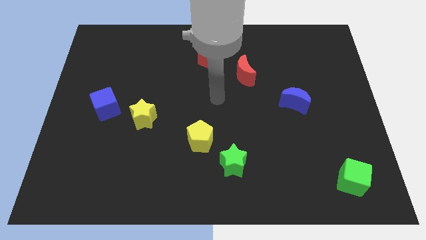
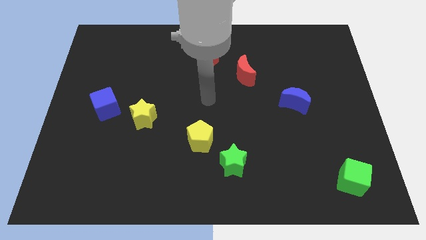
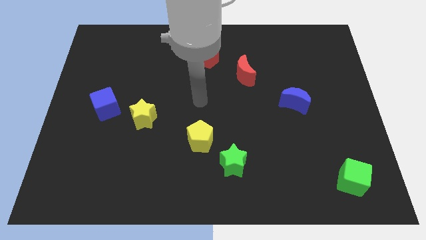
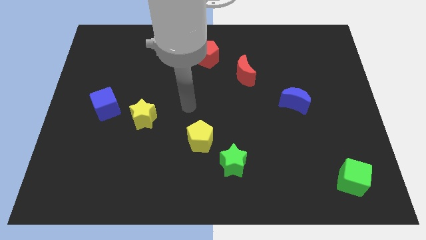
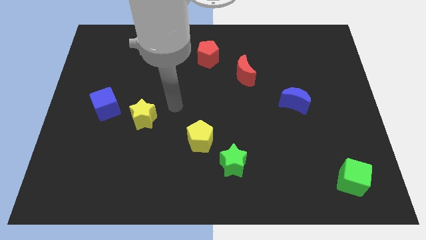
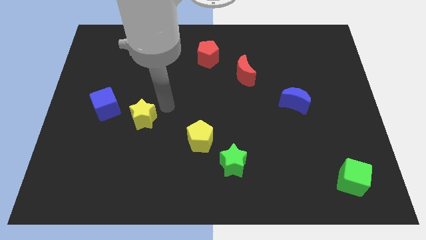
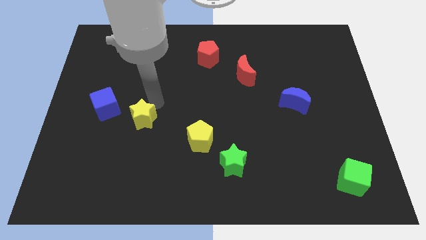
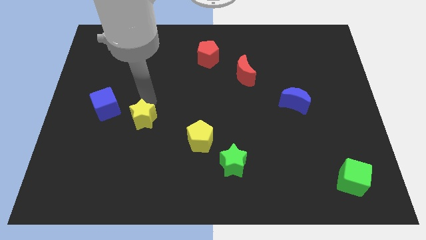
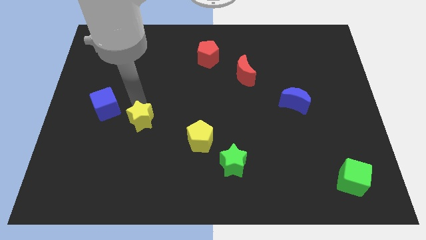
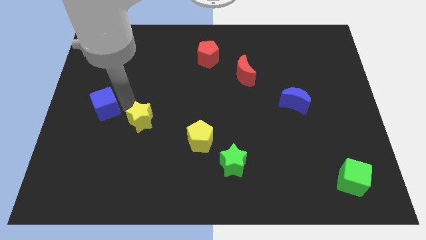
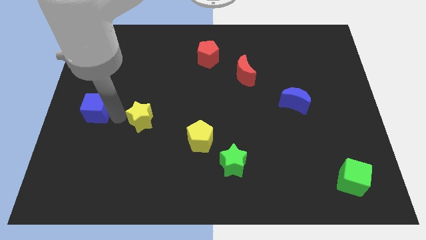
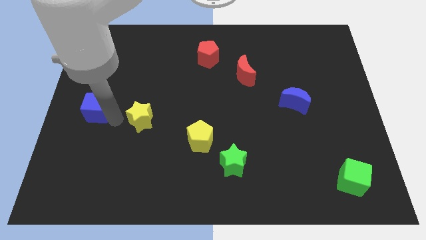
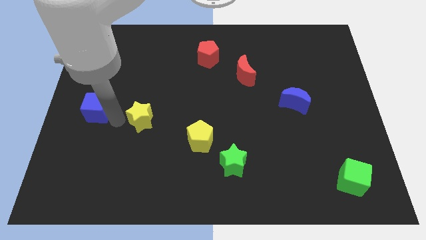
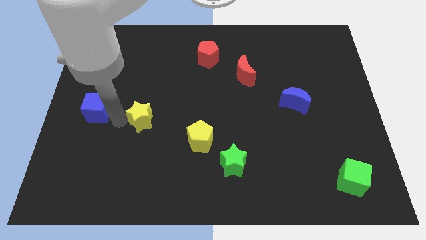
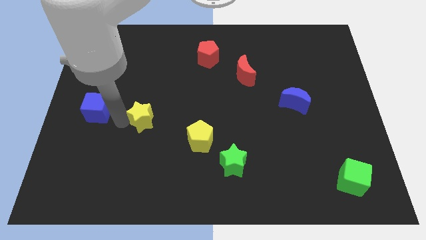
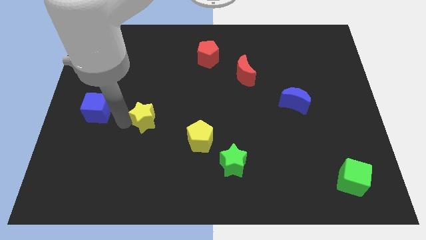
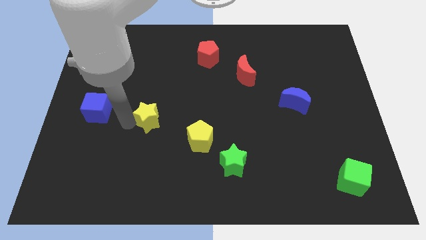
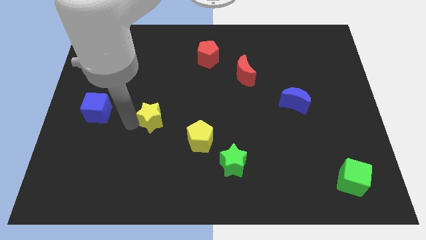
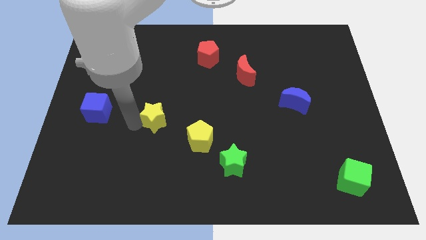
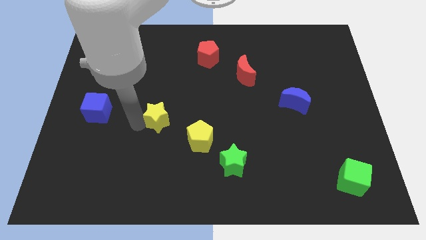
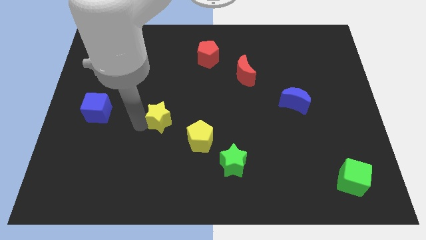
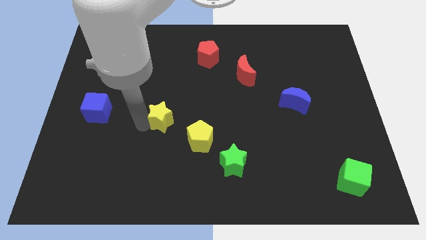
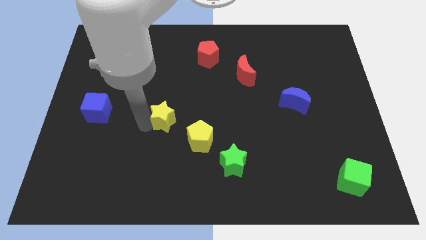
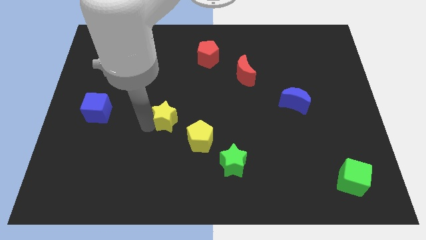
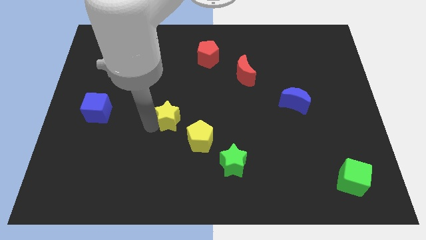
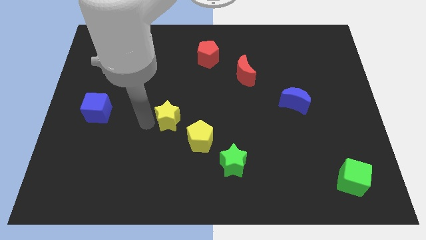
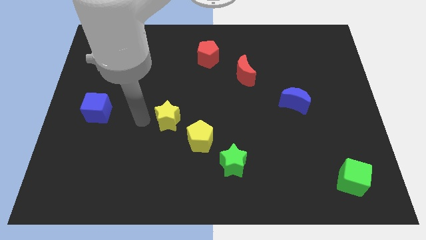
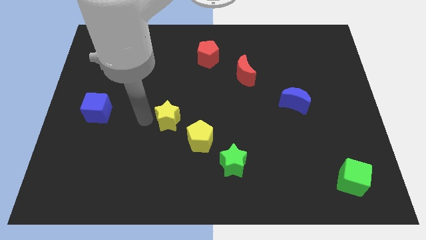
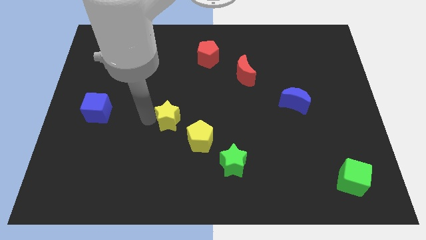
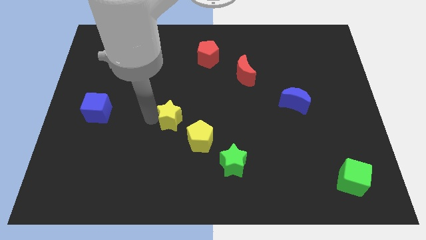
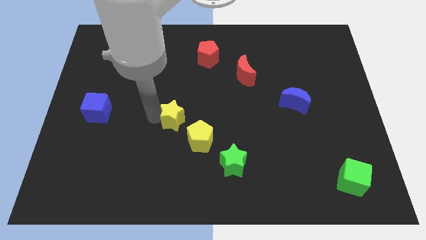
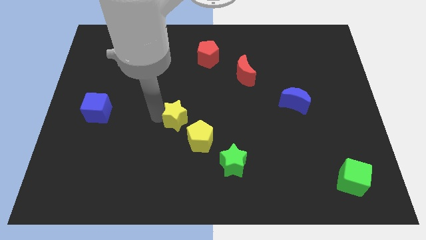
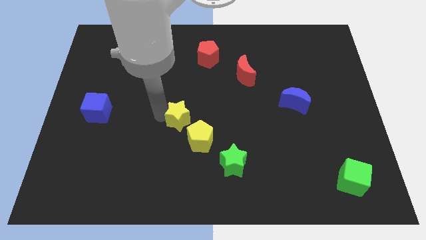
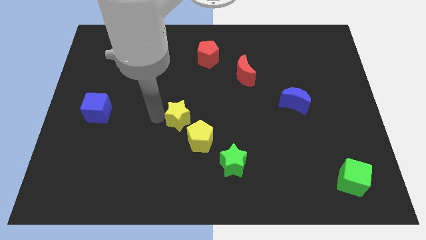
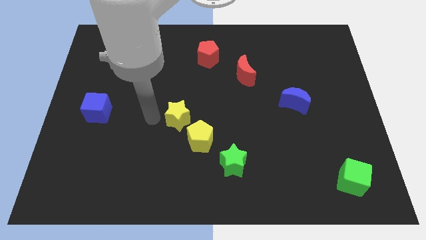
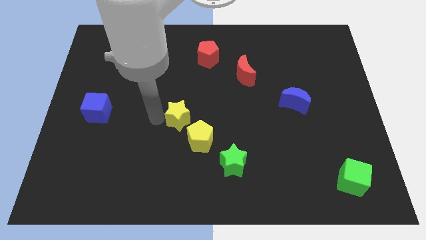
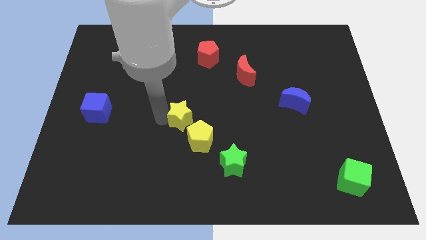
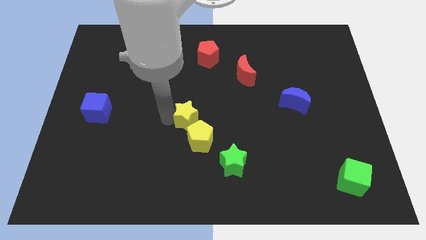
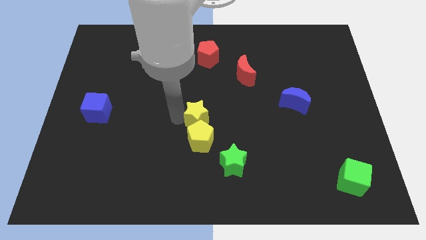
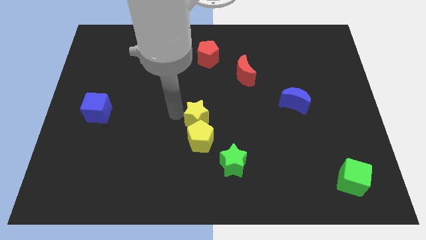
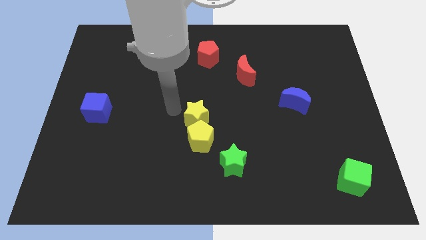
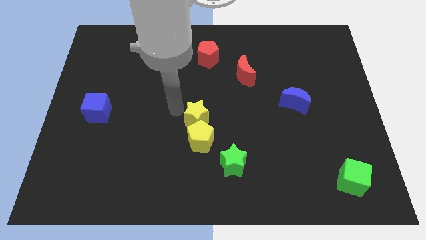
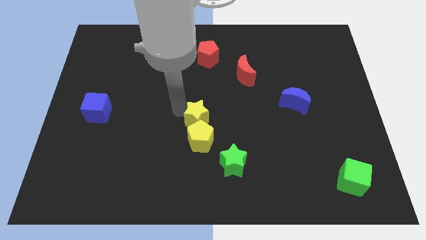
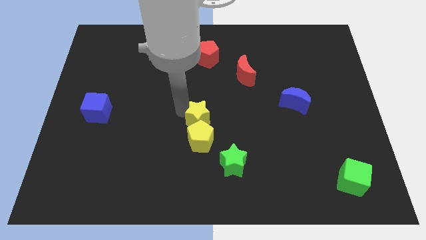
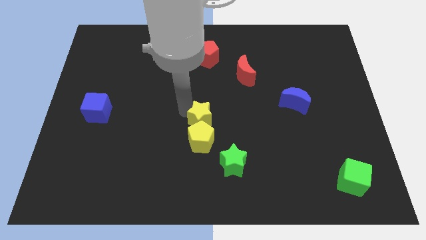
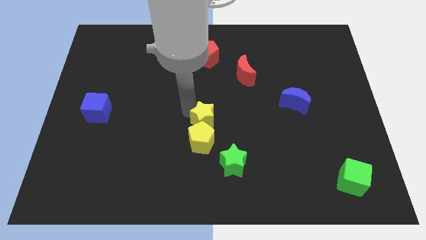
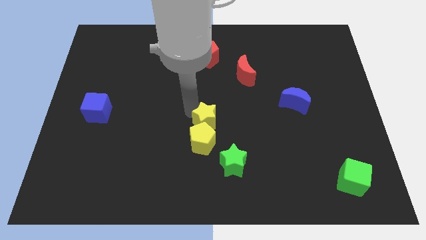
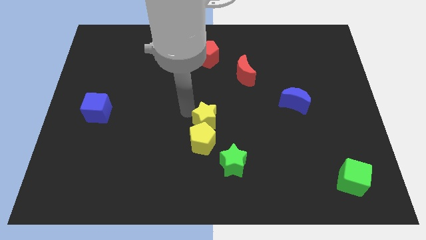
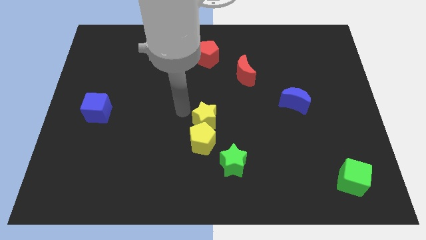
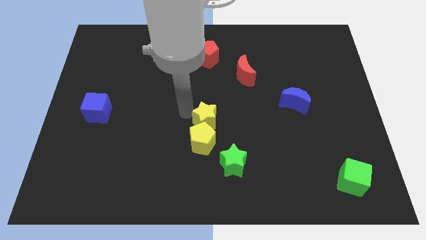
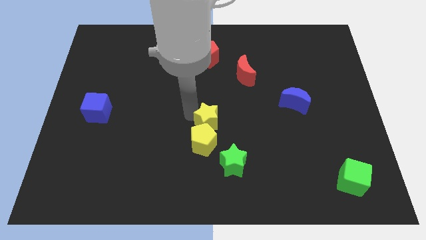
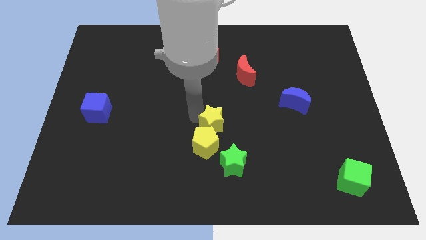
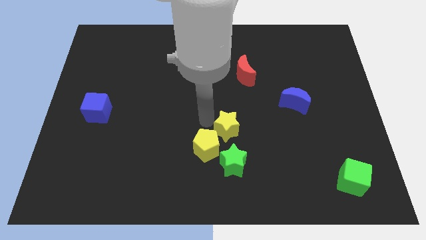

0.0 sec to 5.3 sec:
push the yellow star to the right of the yellow pentagon

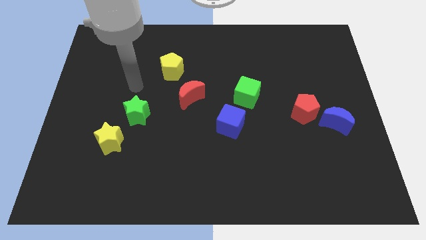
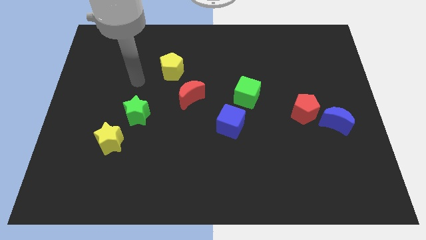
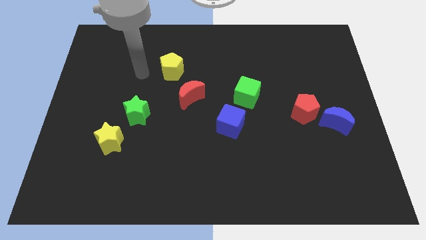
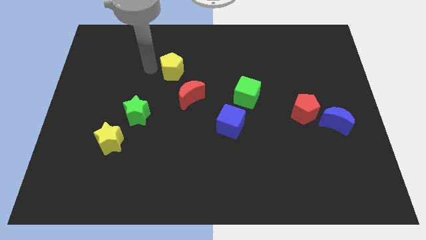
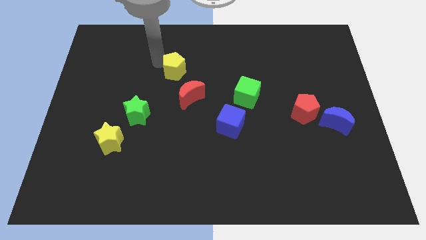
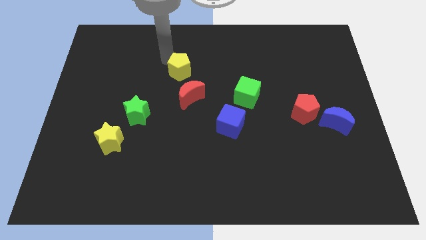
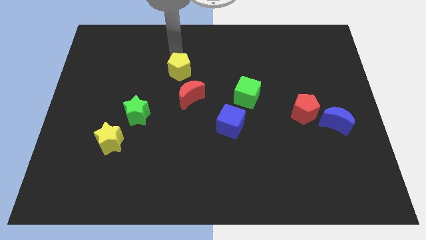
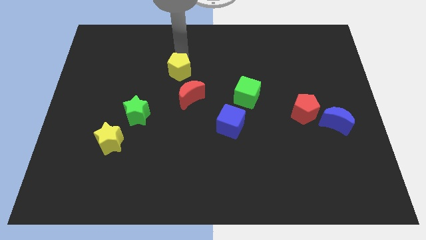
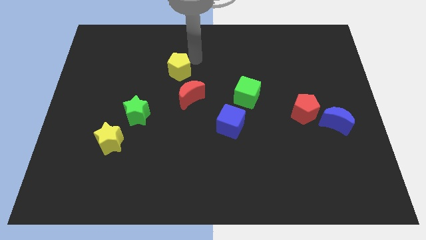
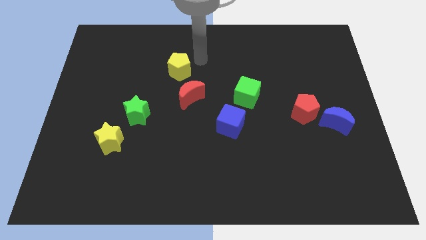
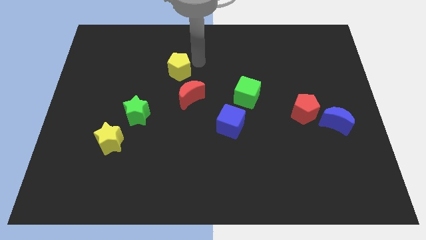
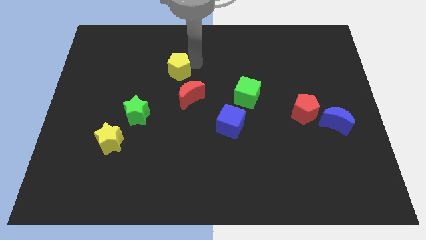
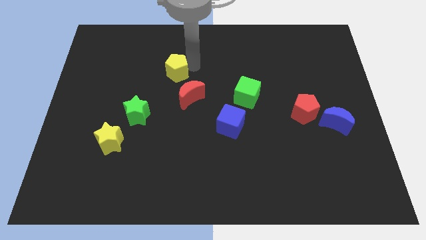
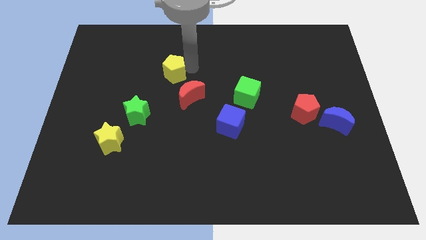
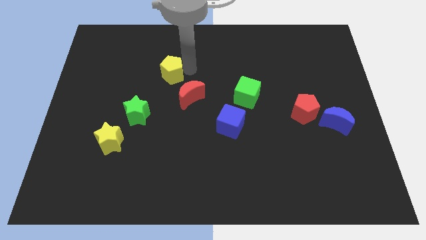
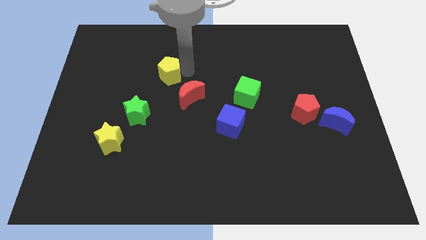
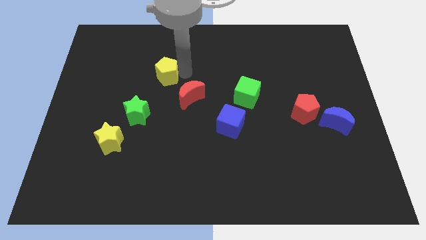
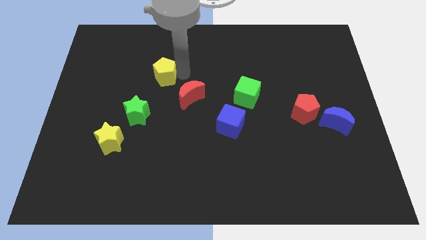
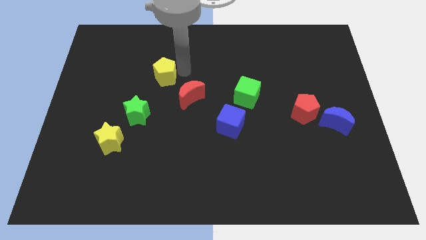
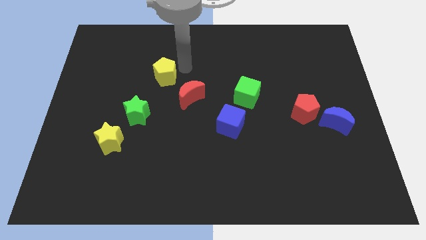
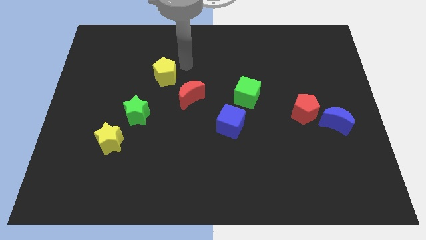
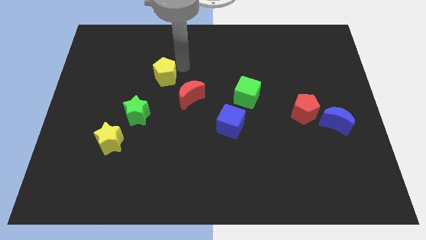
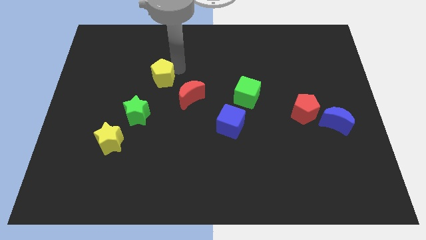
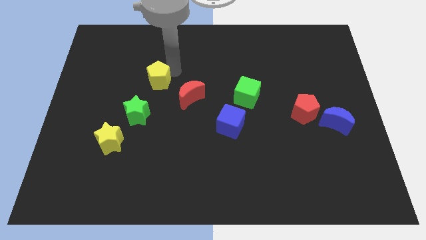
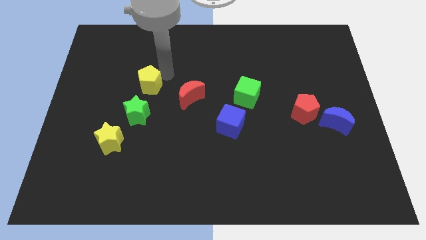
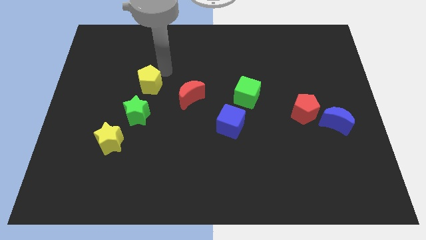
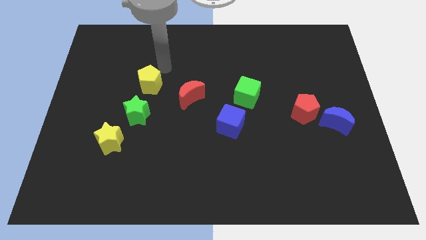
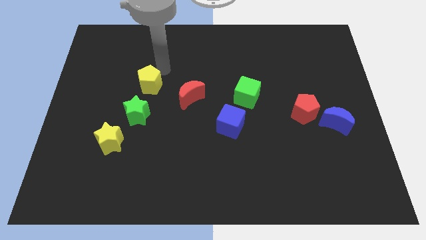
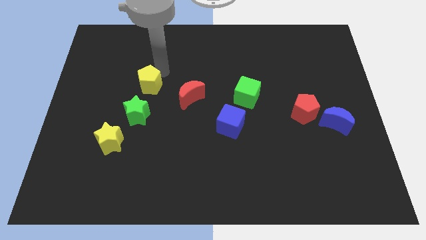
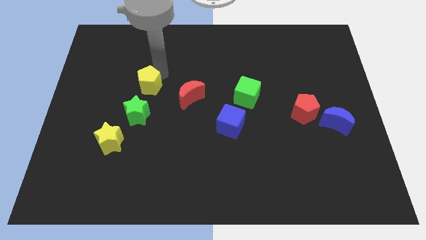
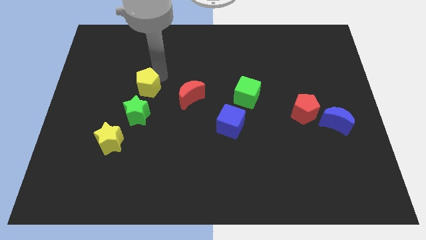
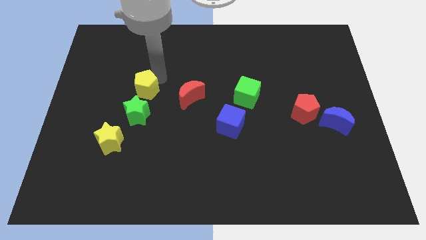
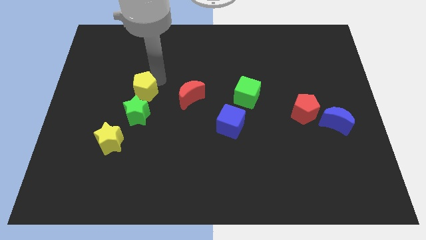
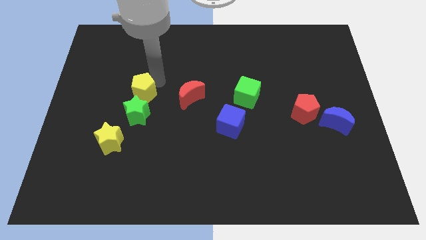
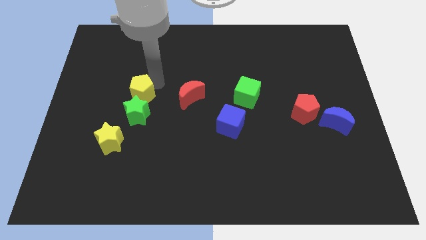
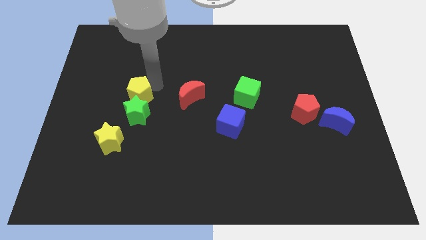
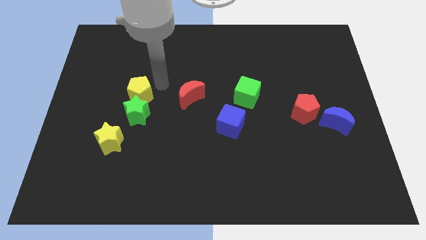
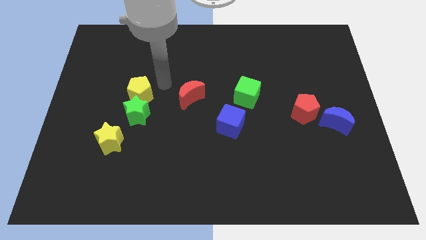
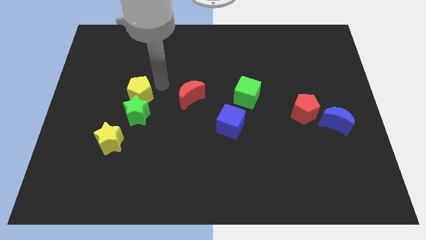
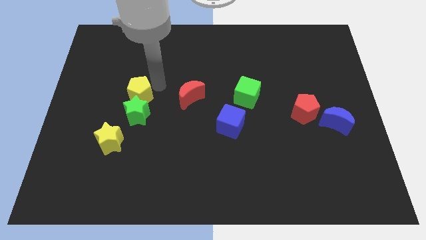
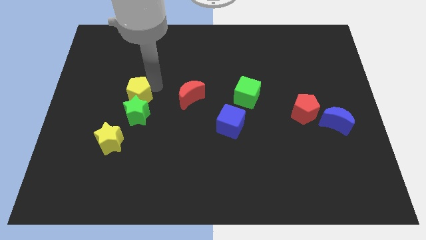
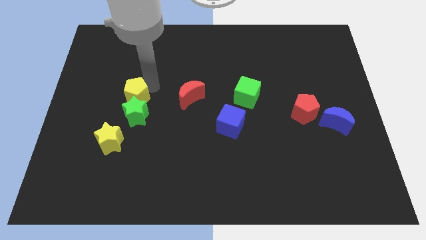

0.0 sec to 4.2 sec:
put the yellow pentagon to the top of the yellow star
